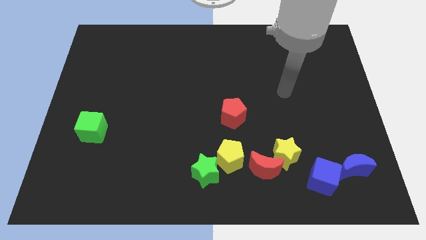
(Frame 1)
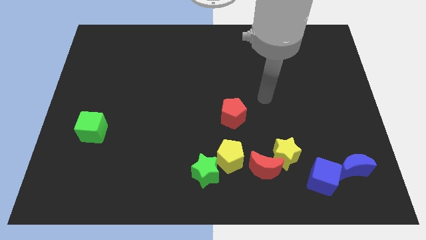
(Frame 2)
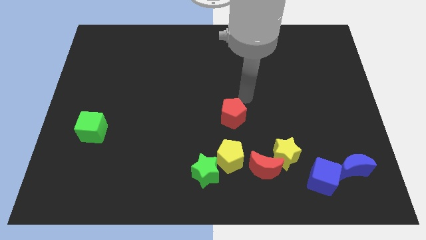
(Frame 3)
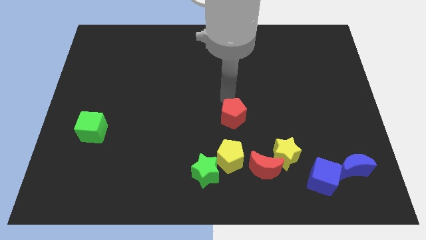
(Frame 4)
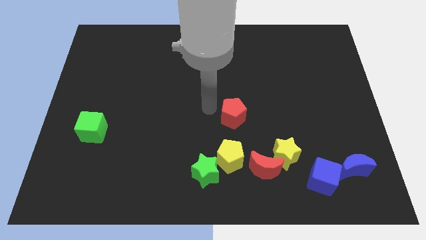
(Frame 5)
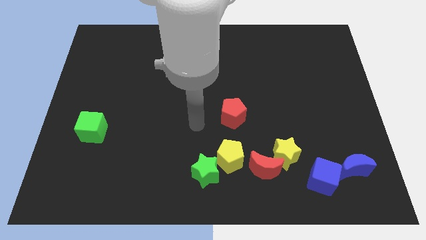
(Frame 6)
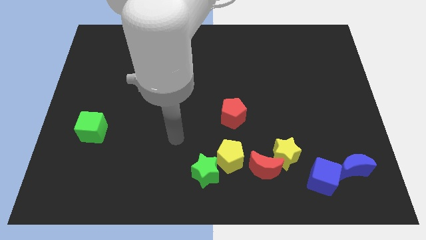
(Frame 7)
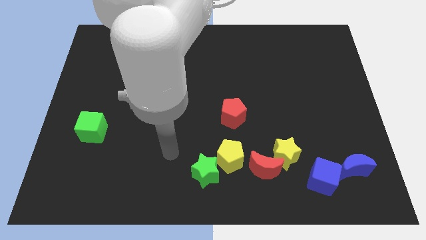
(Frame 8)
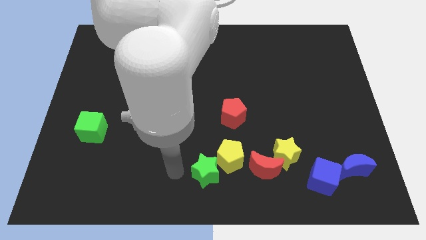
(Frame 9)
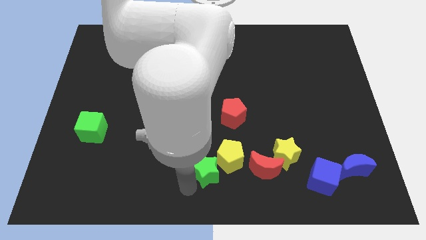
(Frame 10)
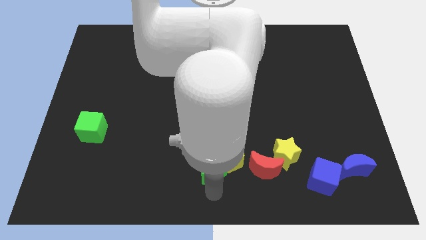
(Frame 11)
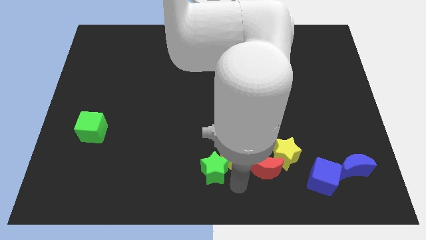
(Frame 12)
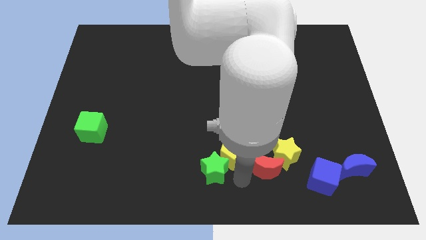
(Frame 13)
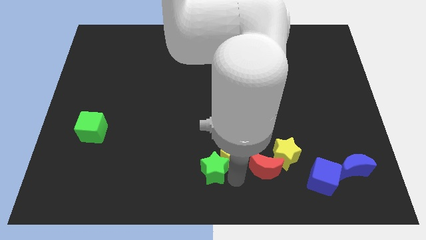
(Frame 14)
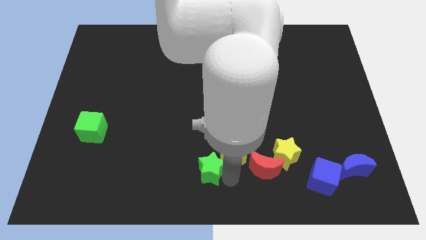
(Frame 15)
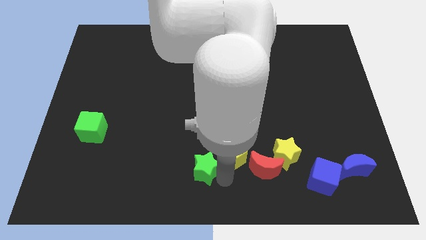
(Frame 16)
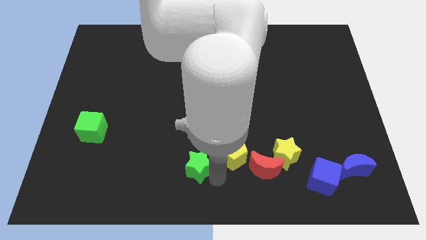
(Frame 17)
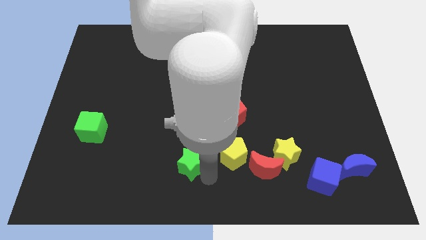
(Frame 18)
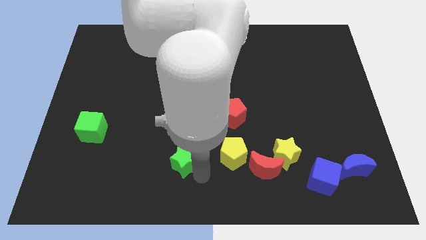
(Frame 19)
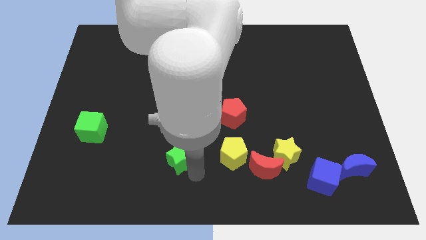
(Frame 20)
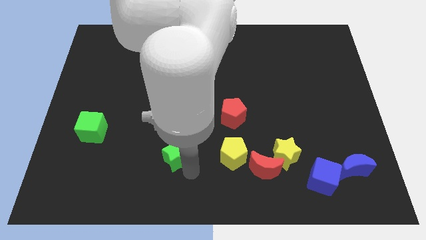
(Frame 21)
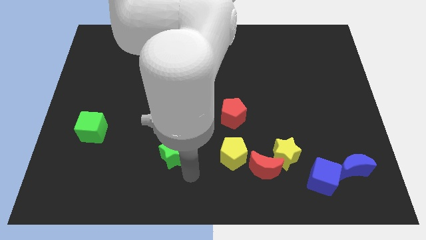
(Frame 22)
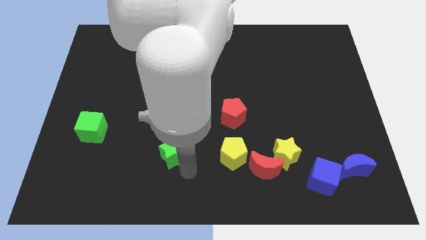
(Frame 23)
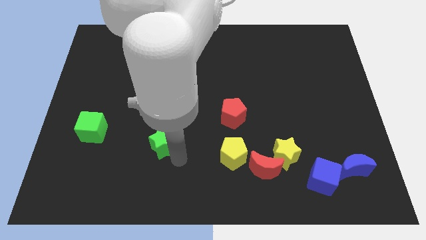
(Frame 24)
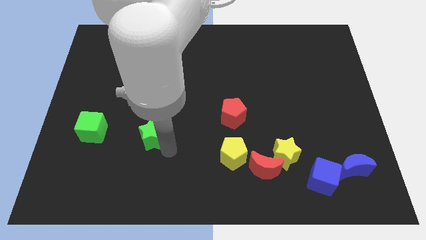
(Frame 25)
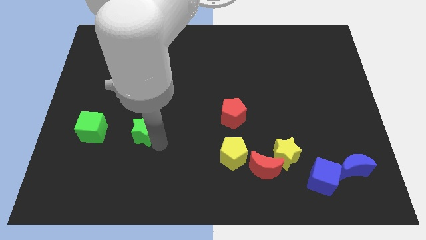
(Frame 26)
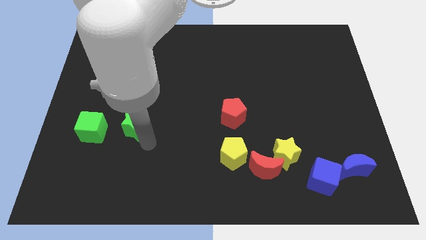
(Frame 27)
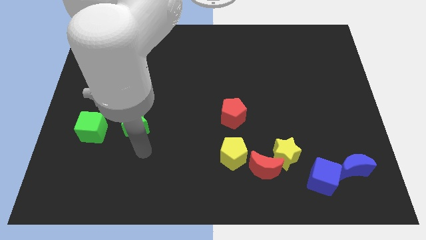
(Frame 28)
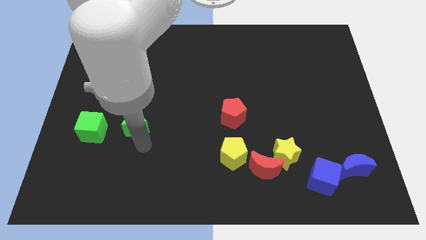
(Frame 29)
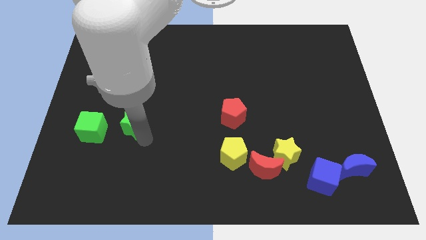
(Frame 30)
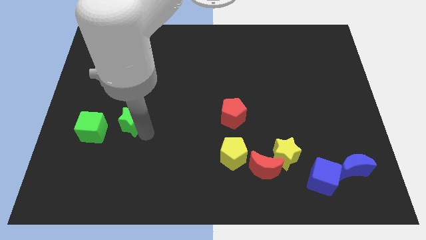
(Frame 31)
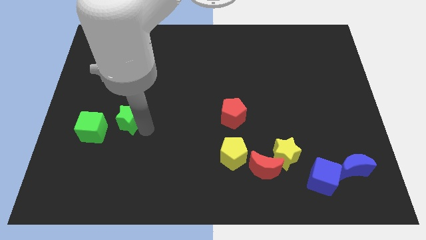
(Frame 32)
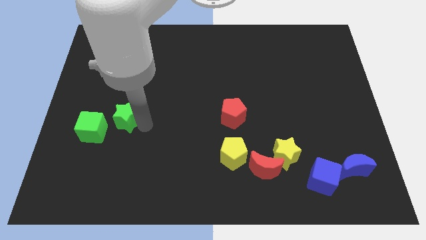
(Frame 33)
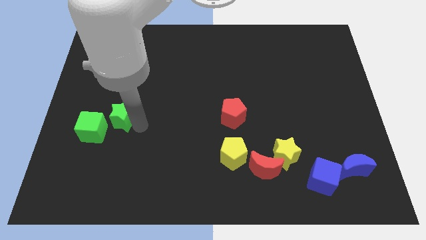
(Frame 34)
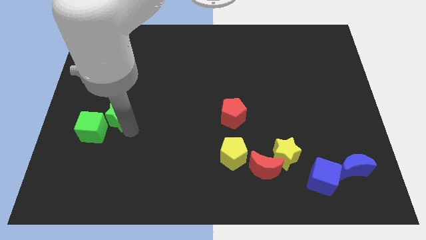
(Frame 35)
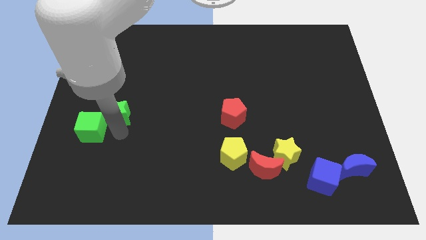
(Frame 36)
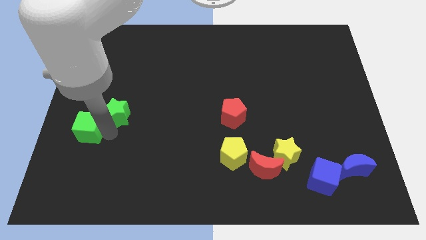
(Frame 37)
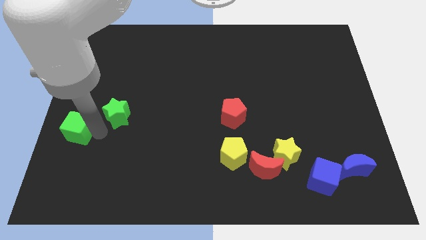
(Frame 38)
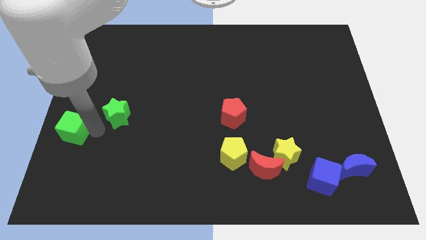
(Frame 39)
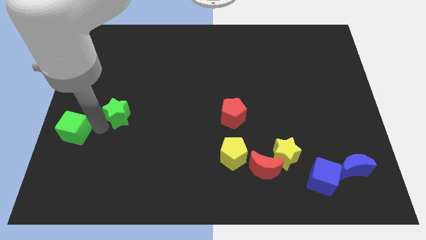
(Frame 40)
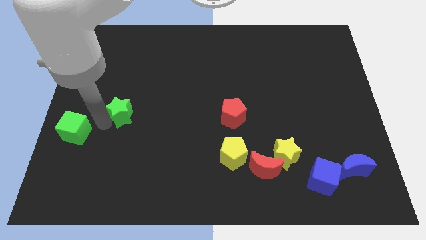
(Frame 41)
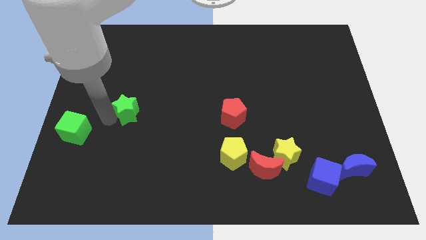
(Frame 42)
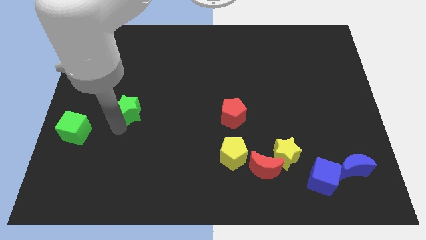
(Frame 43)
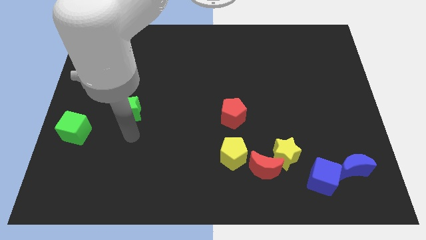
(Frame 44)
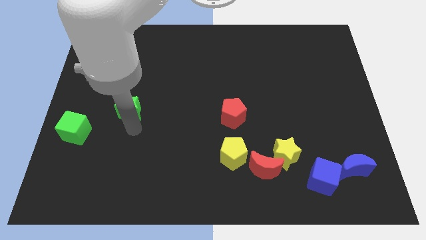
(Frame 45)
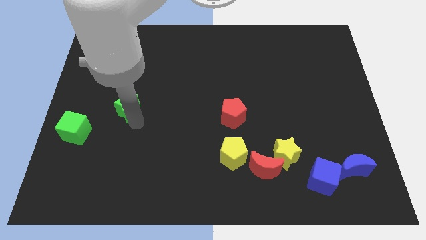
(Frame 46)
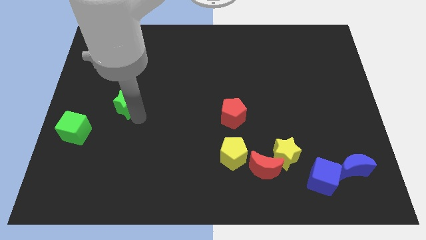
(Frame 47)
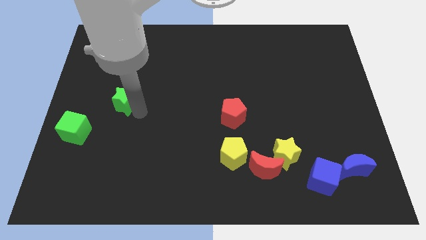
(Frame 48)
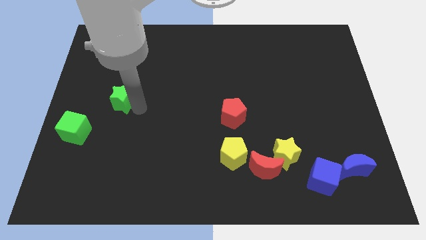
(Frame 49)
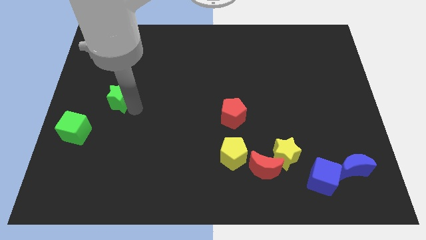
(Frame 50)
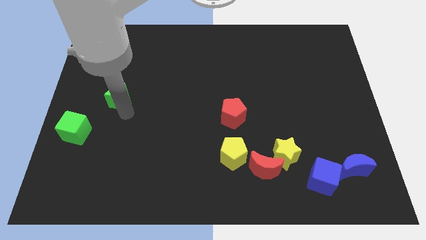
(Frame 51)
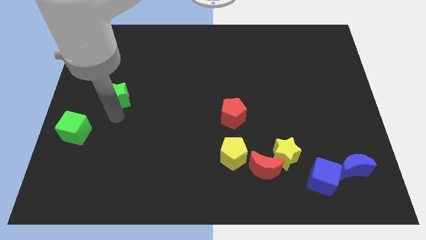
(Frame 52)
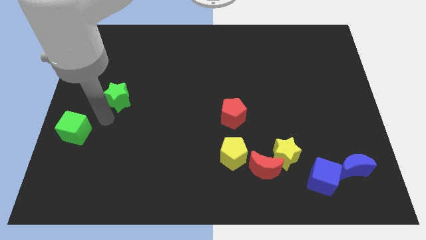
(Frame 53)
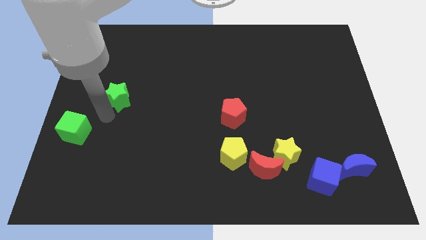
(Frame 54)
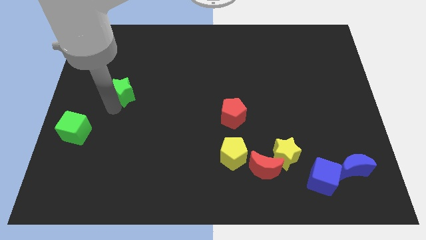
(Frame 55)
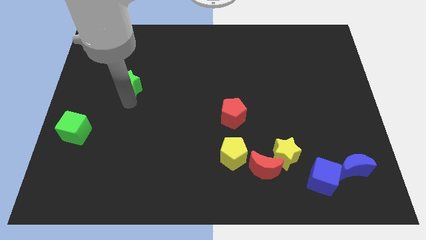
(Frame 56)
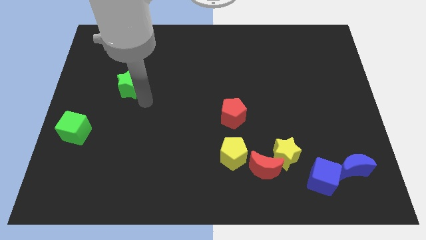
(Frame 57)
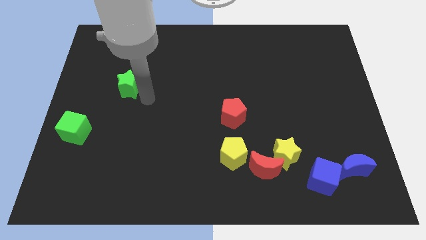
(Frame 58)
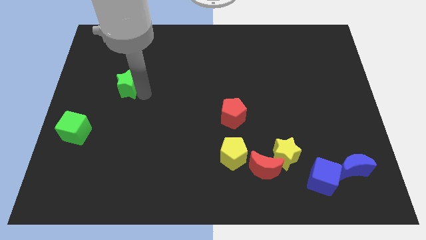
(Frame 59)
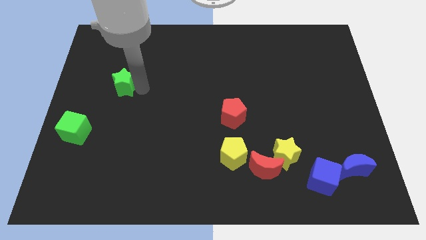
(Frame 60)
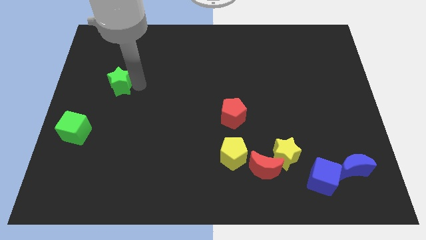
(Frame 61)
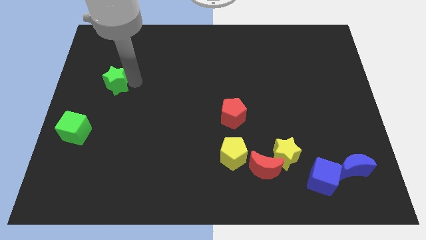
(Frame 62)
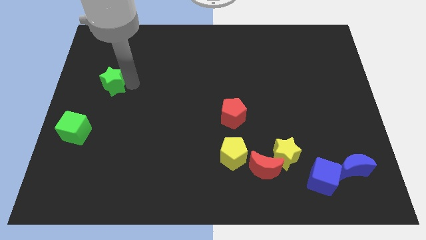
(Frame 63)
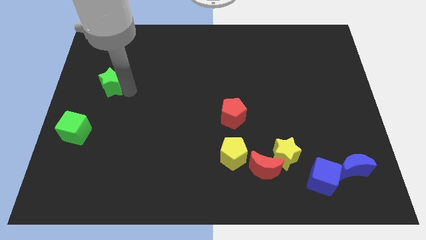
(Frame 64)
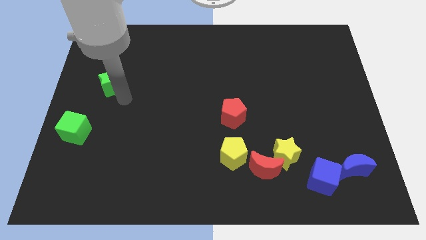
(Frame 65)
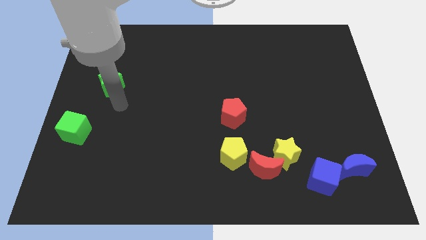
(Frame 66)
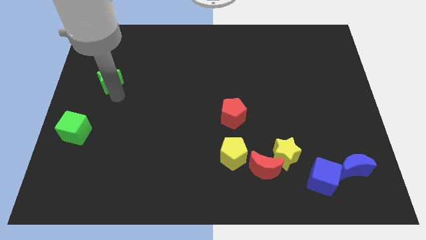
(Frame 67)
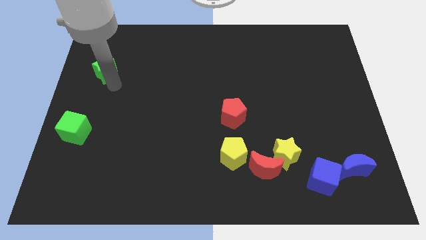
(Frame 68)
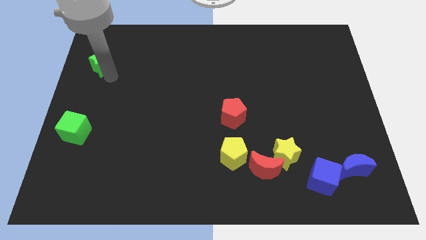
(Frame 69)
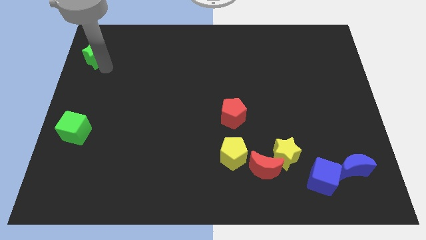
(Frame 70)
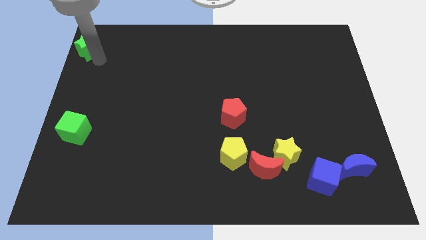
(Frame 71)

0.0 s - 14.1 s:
push the green star to the top left corner
